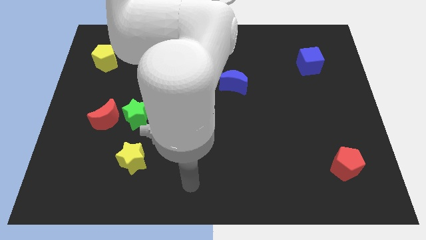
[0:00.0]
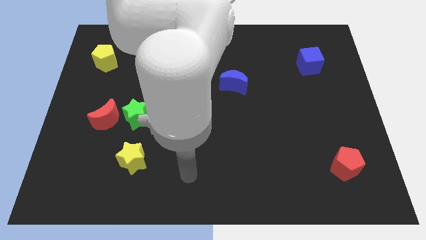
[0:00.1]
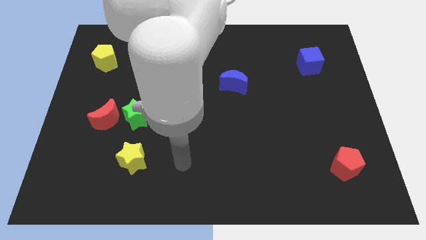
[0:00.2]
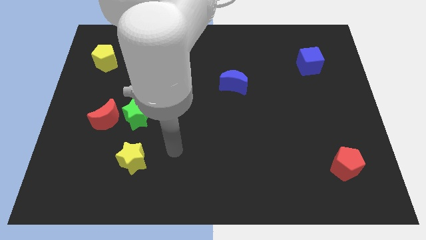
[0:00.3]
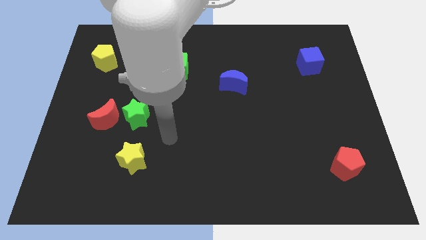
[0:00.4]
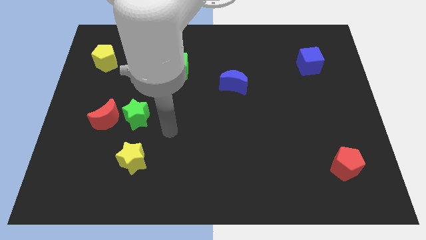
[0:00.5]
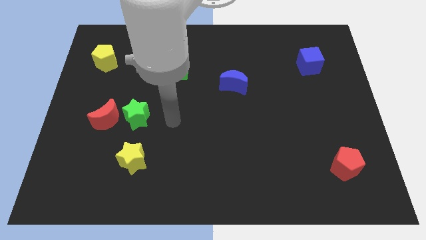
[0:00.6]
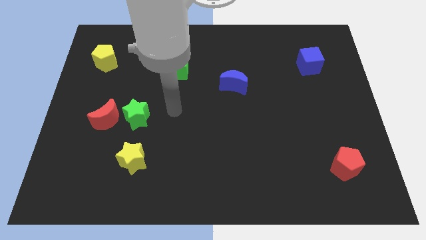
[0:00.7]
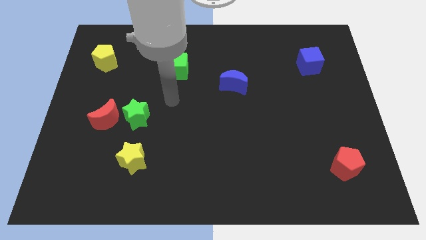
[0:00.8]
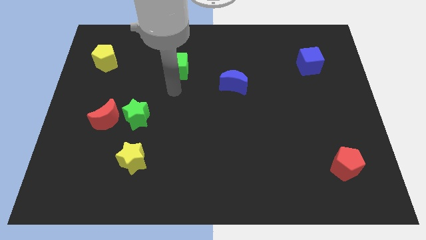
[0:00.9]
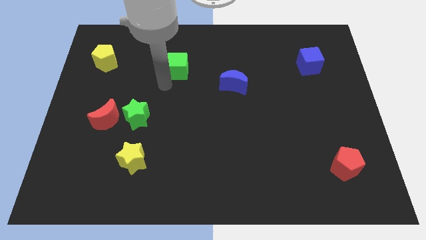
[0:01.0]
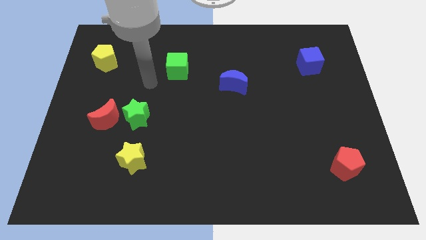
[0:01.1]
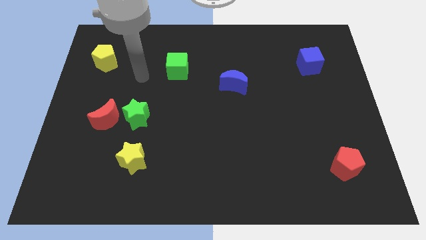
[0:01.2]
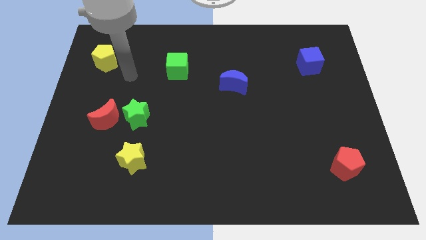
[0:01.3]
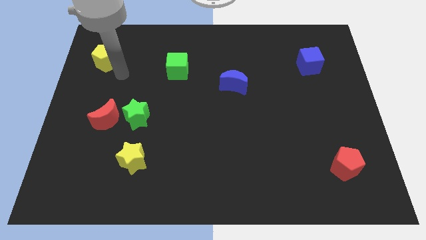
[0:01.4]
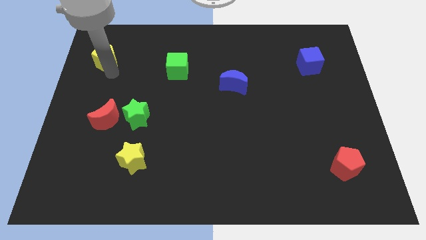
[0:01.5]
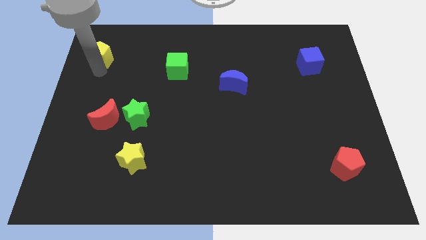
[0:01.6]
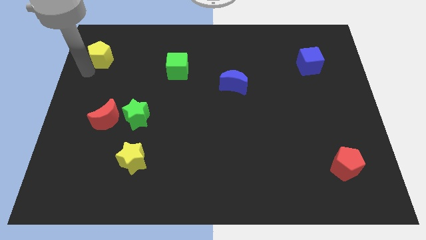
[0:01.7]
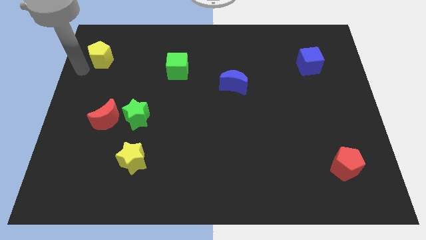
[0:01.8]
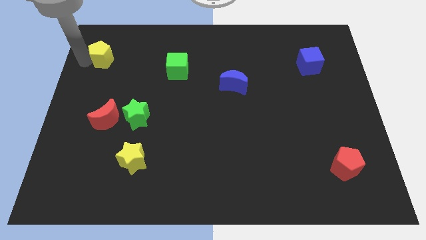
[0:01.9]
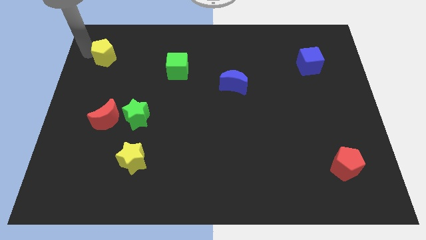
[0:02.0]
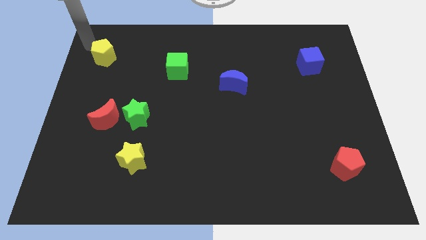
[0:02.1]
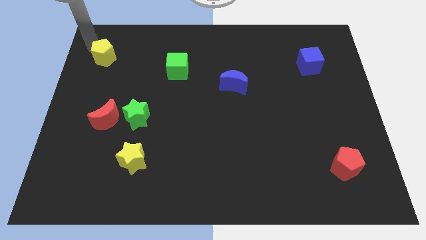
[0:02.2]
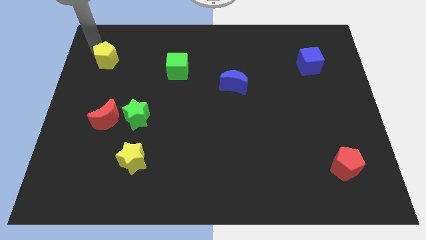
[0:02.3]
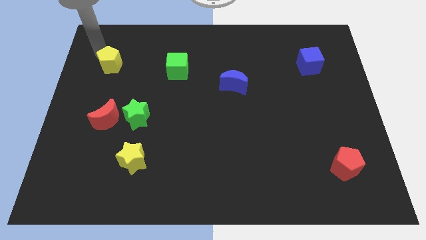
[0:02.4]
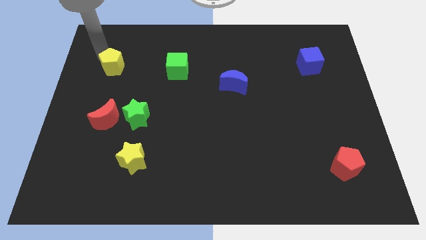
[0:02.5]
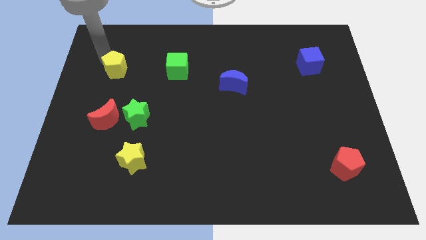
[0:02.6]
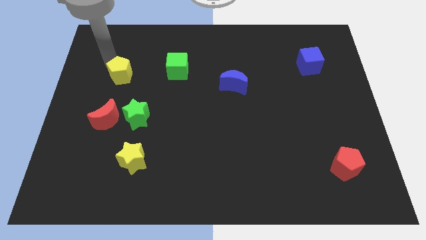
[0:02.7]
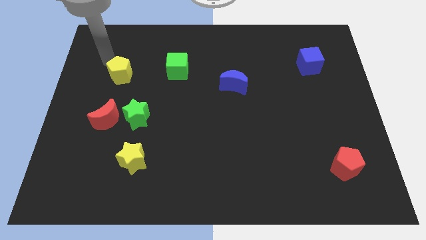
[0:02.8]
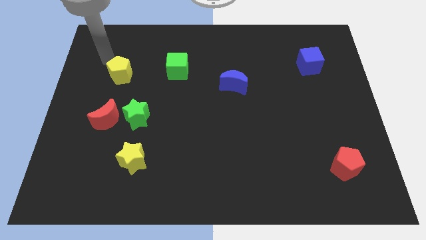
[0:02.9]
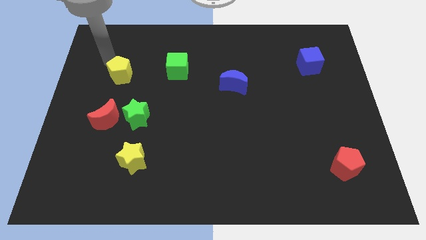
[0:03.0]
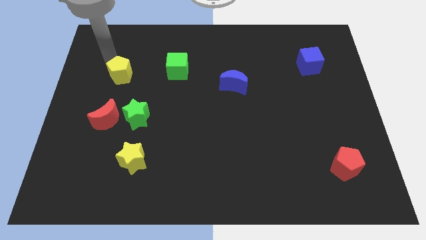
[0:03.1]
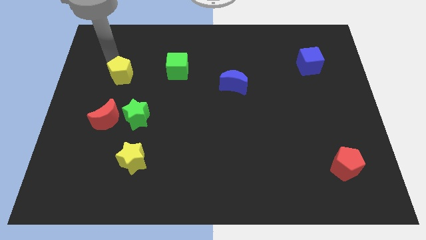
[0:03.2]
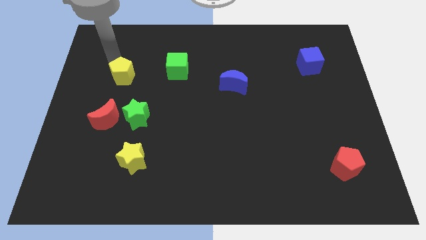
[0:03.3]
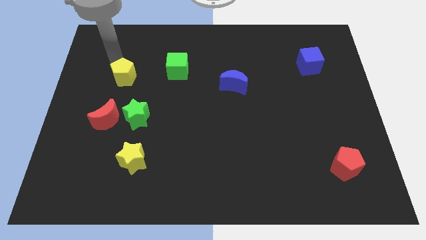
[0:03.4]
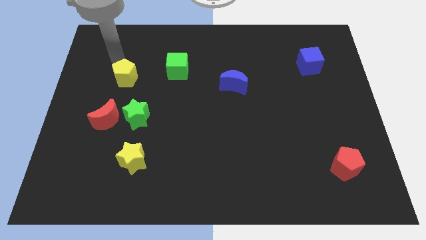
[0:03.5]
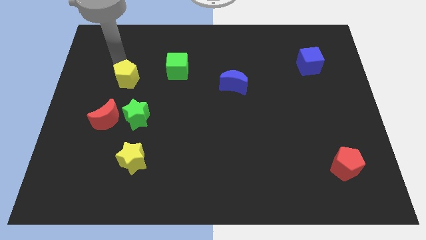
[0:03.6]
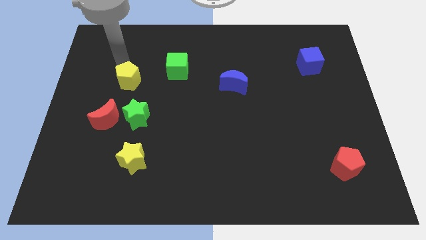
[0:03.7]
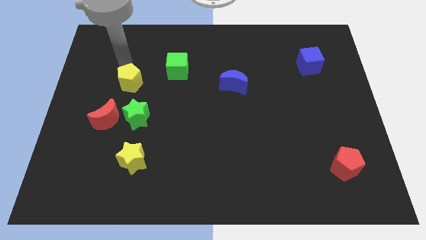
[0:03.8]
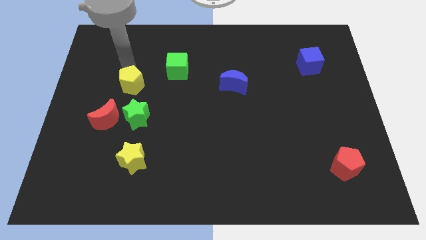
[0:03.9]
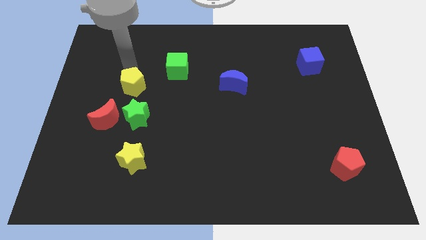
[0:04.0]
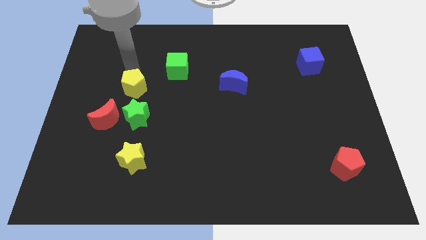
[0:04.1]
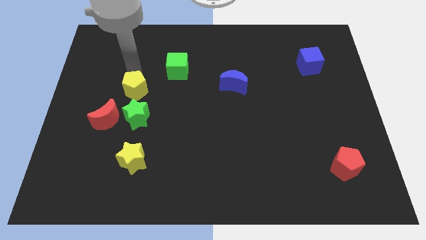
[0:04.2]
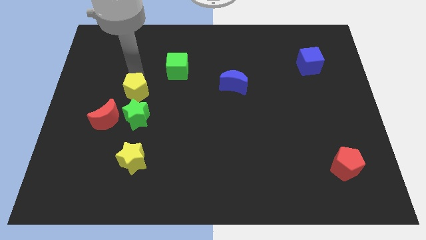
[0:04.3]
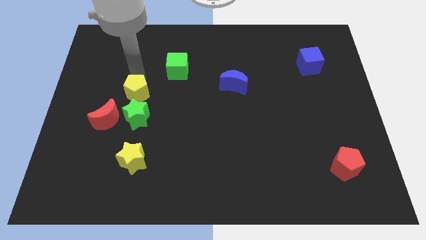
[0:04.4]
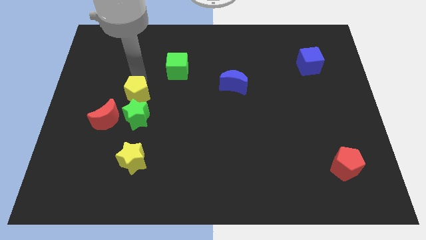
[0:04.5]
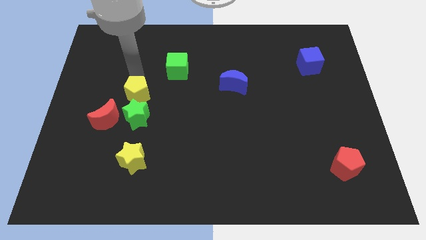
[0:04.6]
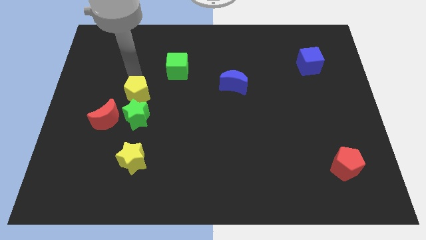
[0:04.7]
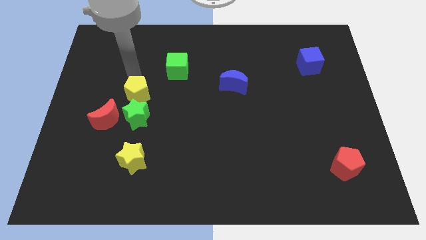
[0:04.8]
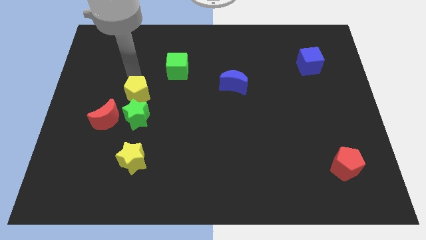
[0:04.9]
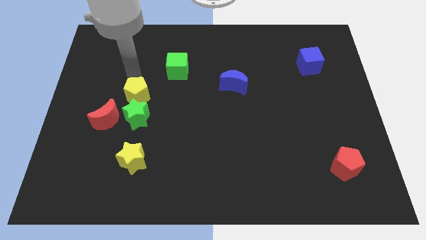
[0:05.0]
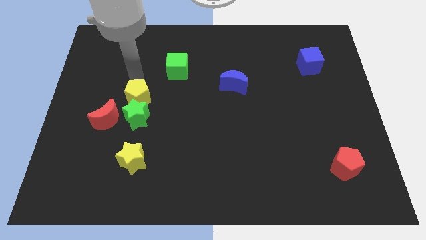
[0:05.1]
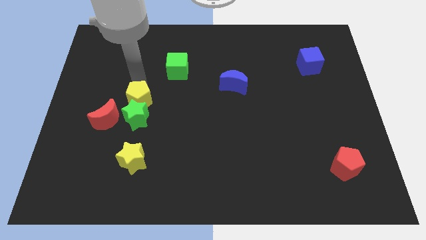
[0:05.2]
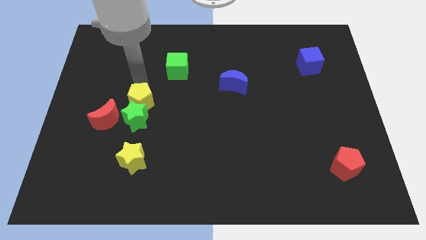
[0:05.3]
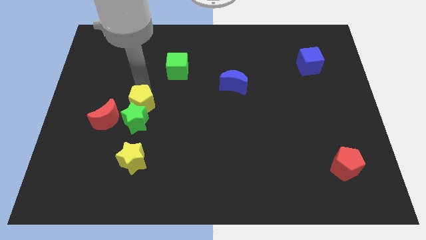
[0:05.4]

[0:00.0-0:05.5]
move the yellow pentagon to the top of the yellow star
